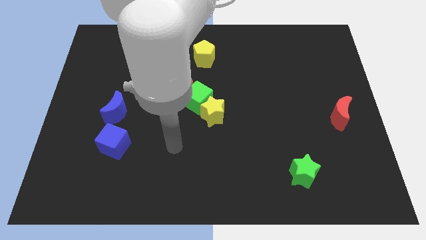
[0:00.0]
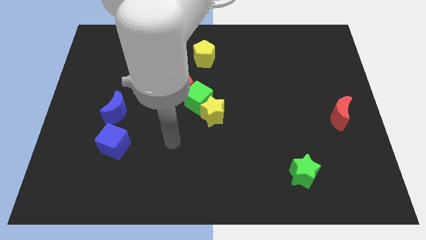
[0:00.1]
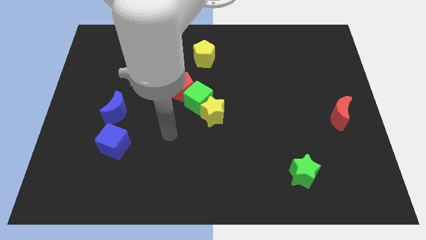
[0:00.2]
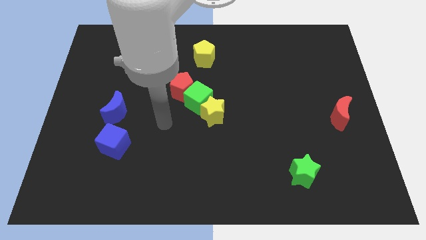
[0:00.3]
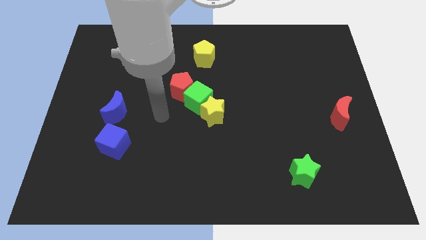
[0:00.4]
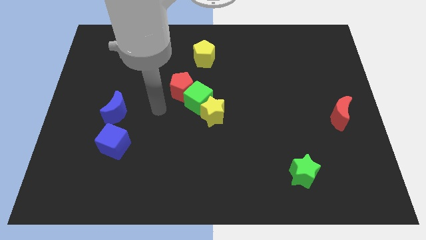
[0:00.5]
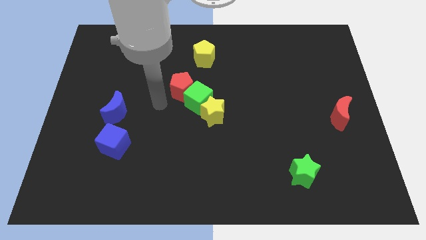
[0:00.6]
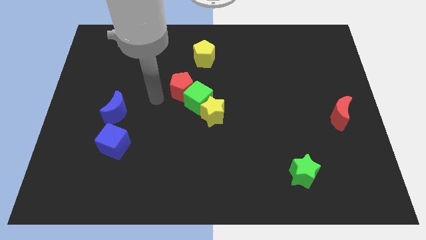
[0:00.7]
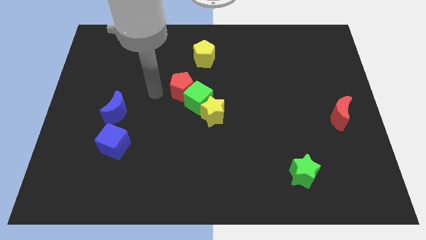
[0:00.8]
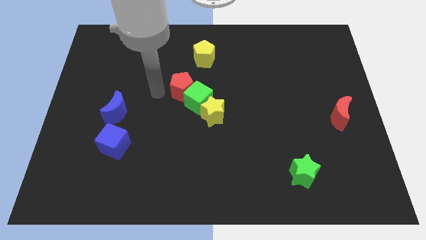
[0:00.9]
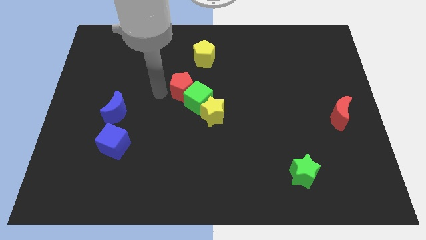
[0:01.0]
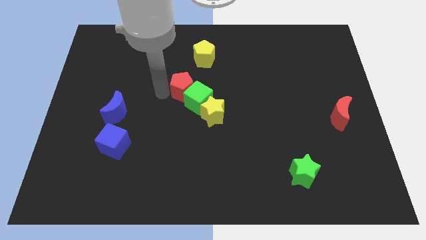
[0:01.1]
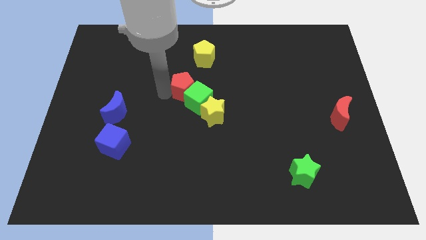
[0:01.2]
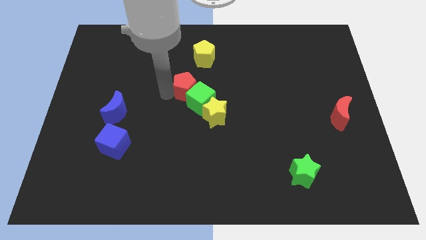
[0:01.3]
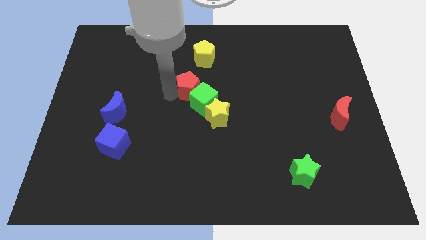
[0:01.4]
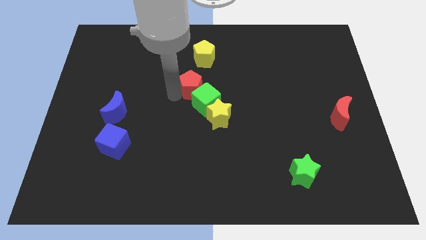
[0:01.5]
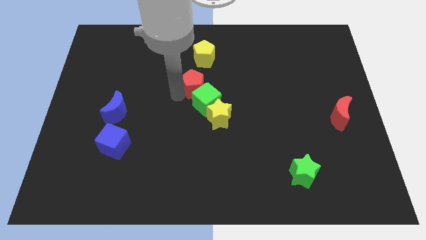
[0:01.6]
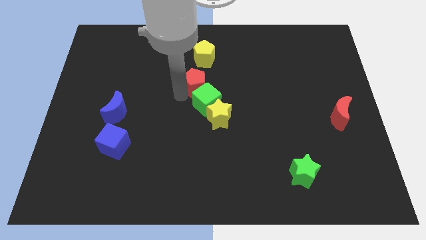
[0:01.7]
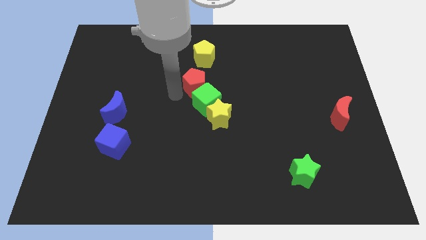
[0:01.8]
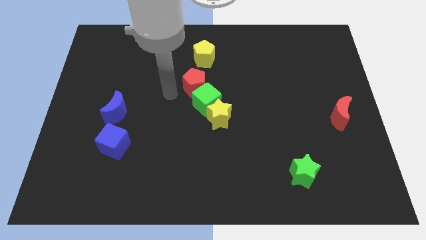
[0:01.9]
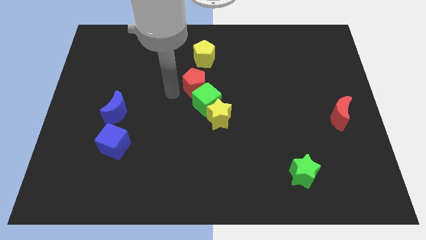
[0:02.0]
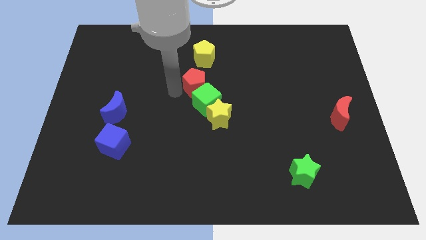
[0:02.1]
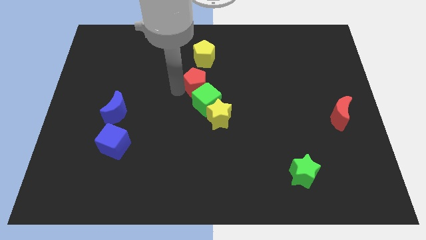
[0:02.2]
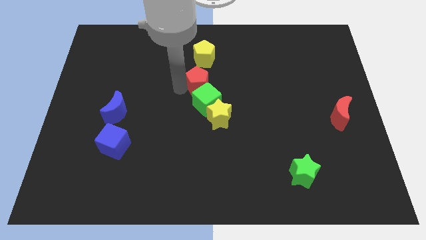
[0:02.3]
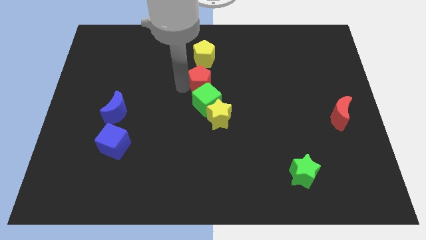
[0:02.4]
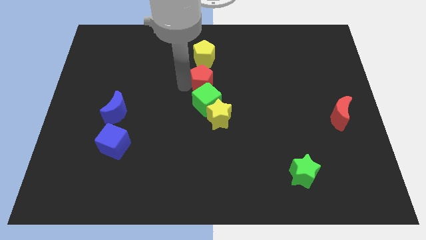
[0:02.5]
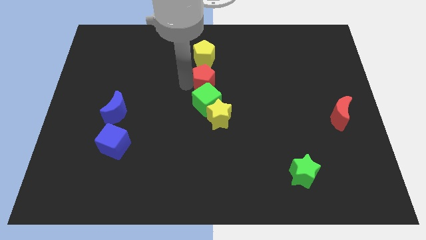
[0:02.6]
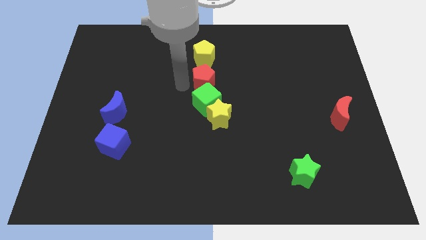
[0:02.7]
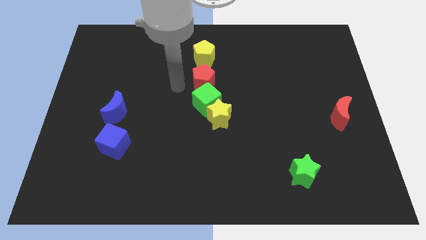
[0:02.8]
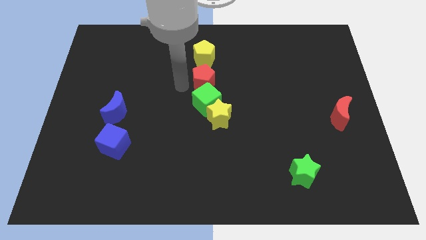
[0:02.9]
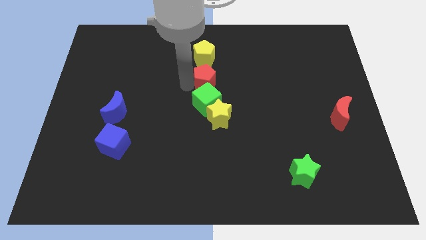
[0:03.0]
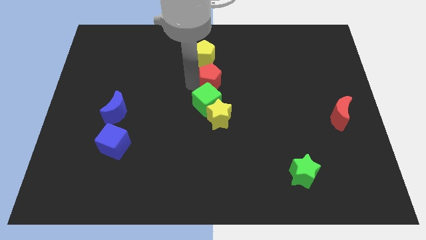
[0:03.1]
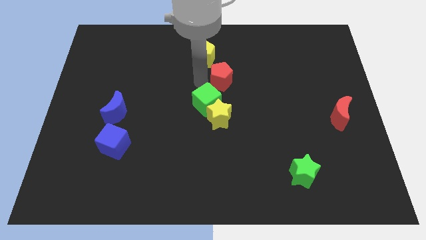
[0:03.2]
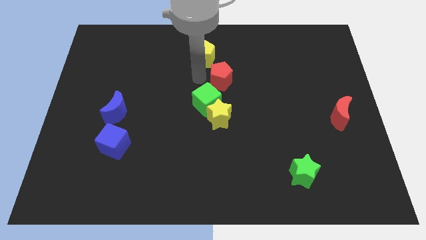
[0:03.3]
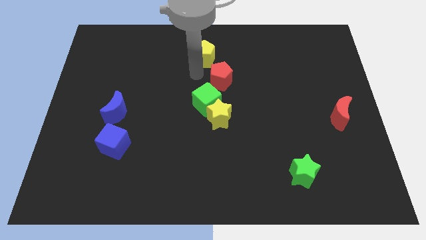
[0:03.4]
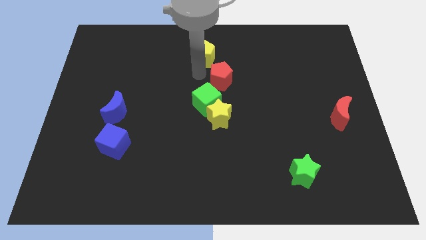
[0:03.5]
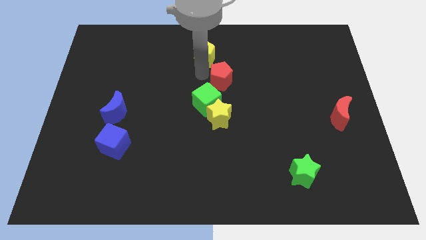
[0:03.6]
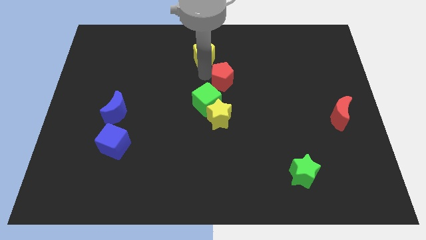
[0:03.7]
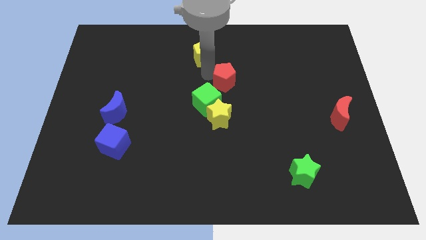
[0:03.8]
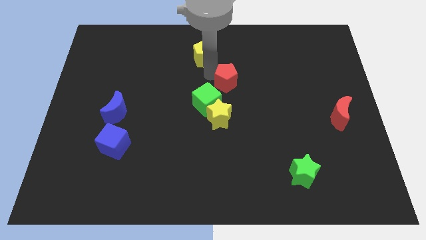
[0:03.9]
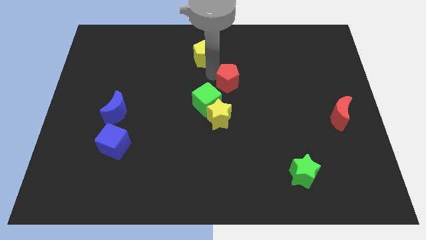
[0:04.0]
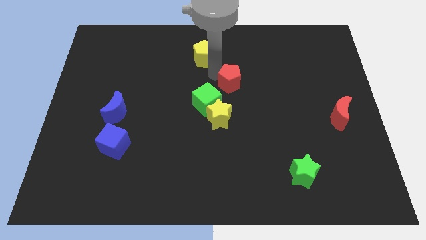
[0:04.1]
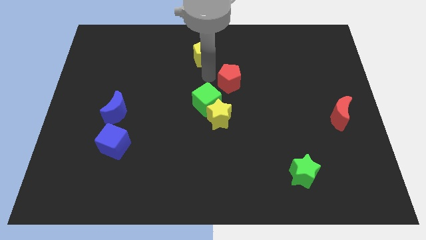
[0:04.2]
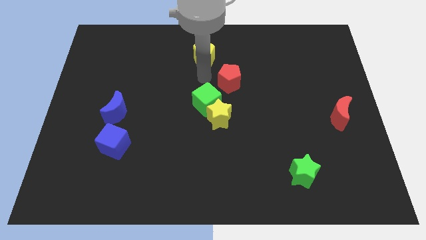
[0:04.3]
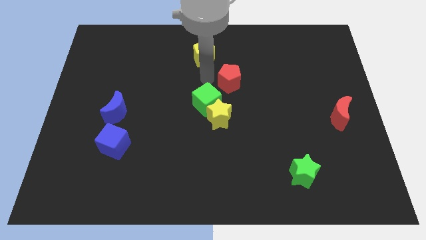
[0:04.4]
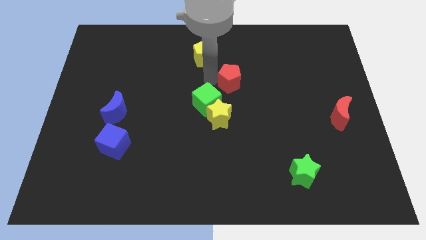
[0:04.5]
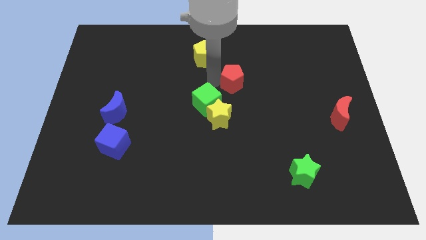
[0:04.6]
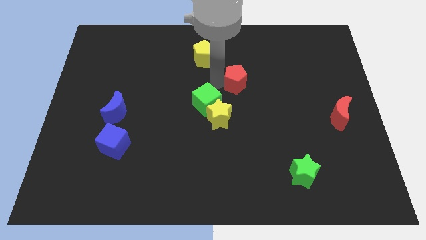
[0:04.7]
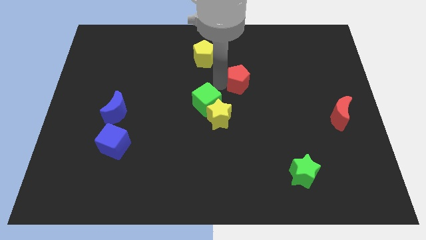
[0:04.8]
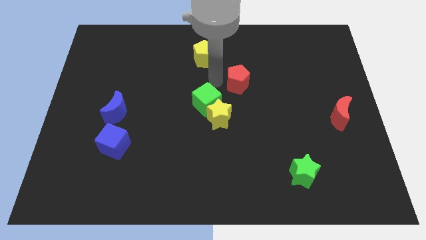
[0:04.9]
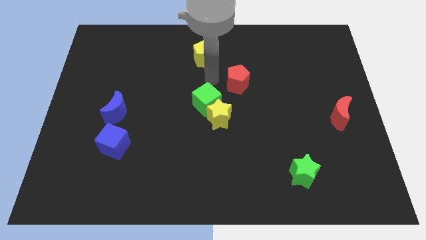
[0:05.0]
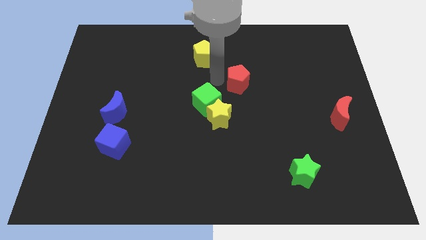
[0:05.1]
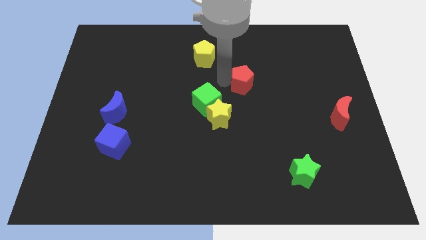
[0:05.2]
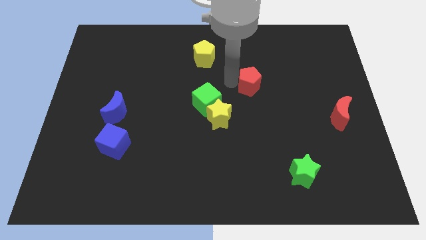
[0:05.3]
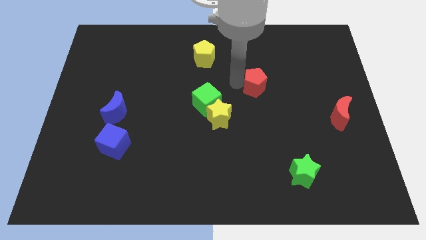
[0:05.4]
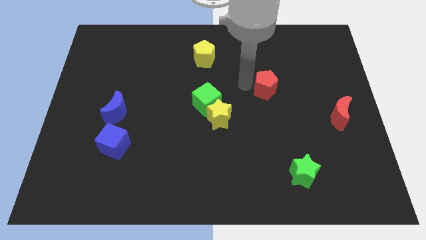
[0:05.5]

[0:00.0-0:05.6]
push the red pentagon to the right

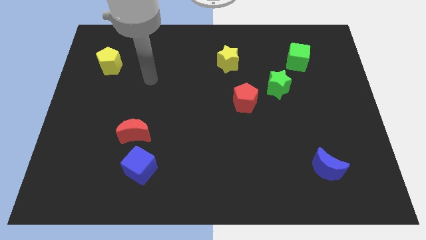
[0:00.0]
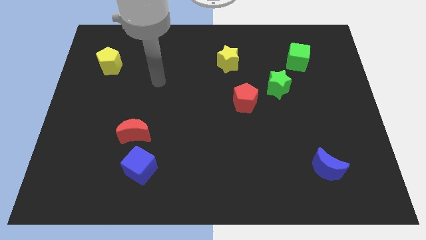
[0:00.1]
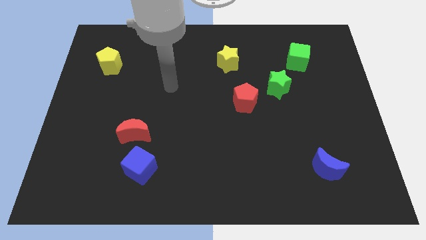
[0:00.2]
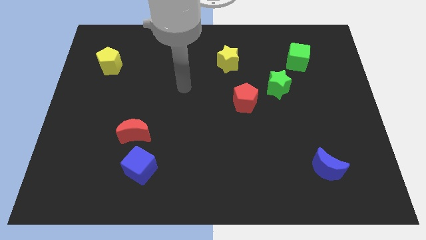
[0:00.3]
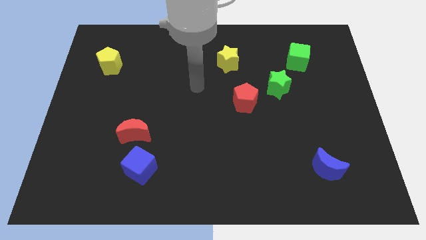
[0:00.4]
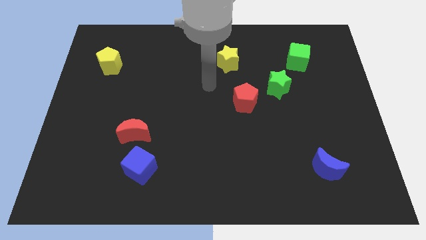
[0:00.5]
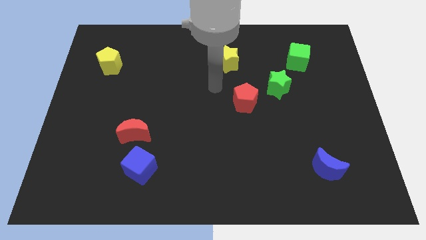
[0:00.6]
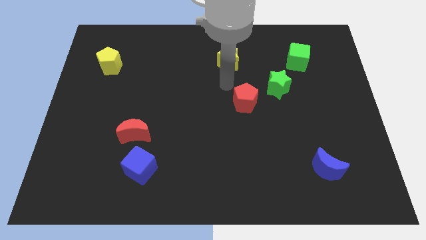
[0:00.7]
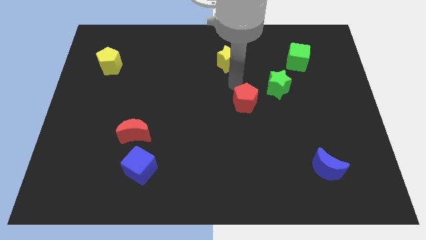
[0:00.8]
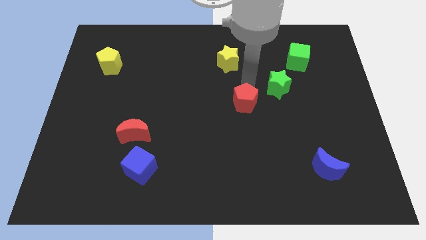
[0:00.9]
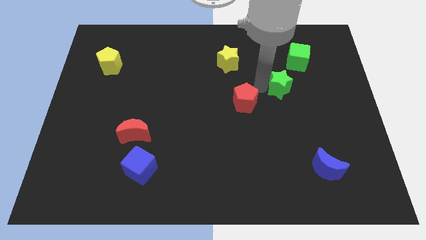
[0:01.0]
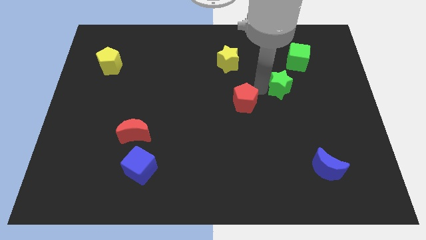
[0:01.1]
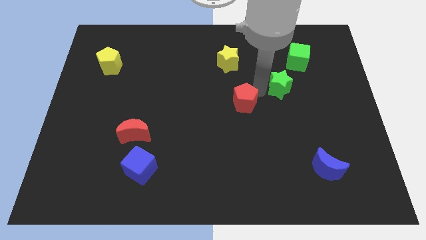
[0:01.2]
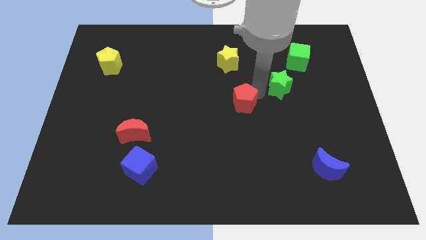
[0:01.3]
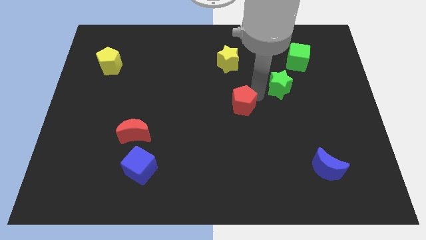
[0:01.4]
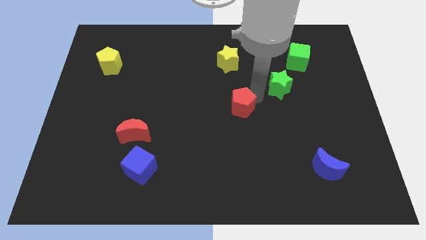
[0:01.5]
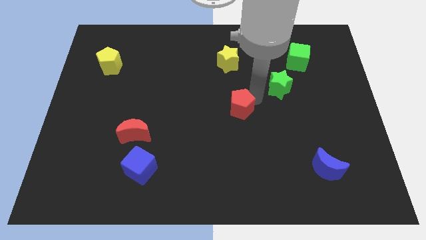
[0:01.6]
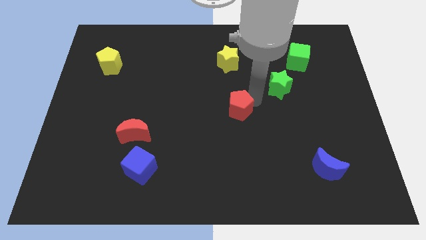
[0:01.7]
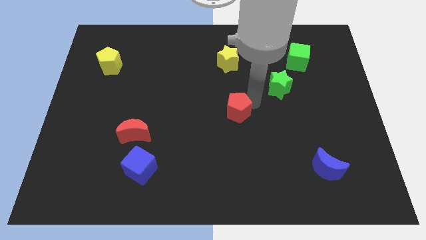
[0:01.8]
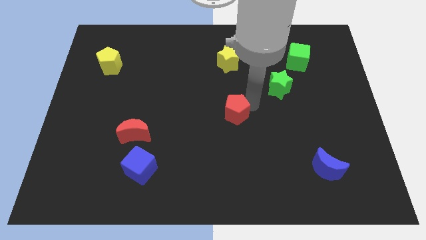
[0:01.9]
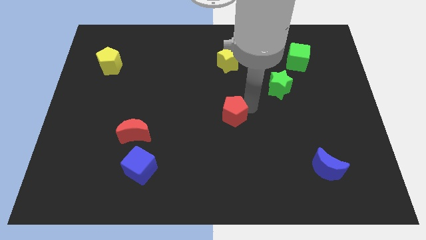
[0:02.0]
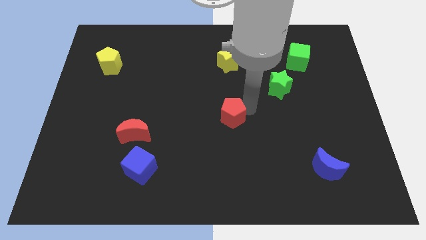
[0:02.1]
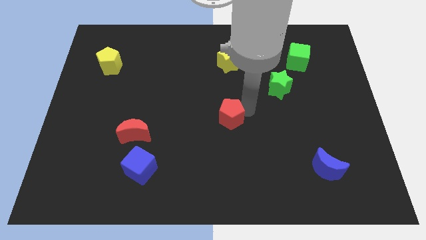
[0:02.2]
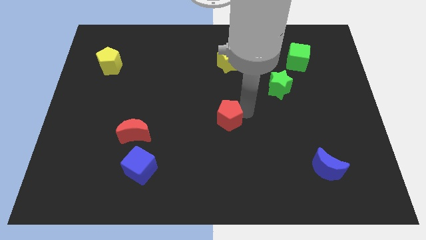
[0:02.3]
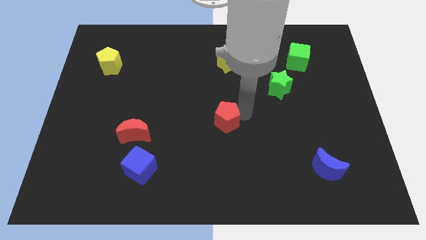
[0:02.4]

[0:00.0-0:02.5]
slightly move the red pentagon diagonally down and to the left

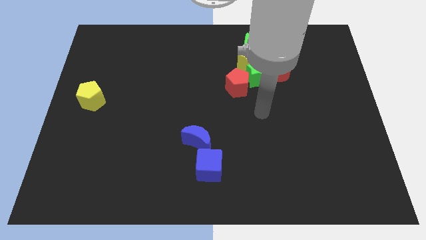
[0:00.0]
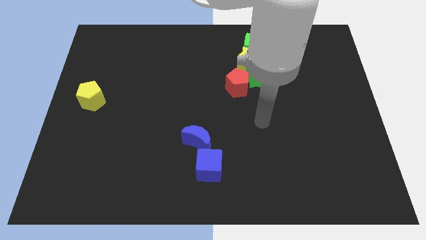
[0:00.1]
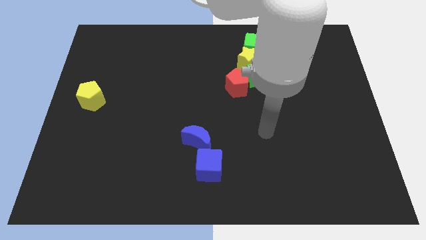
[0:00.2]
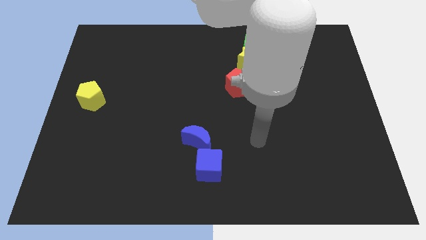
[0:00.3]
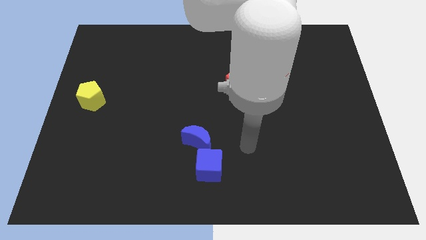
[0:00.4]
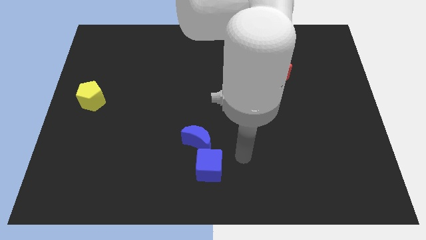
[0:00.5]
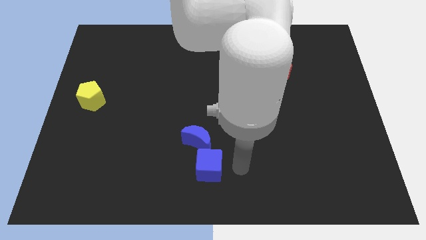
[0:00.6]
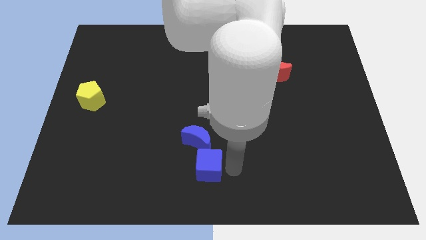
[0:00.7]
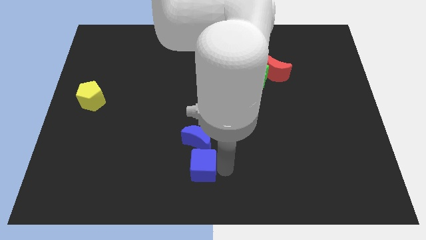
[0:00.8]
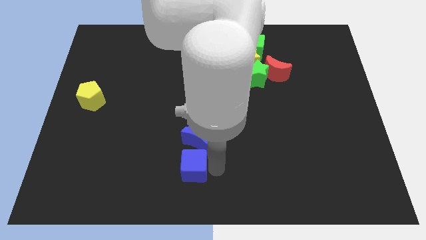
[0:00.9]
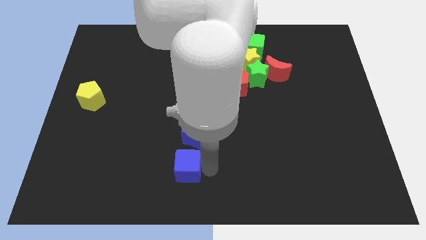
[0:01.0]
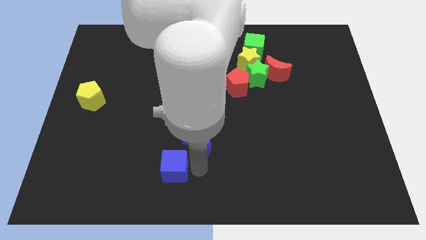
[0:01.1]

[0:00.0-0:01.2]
slightly slide the blue cube left
